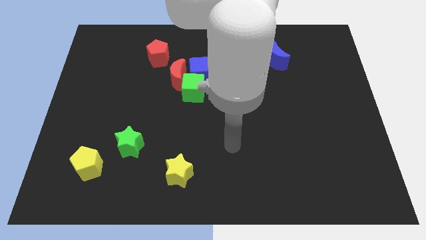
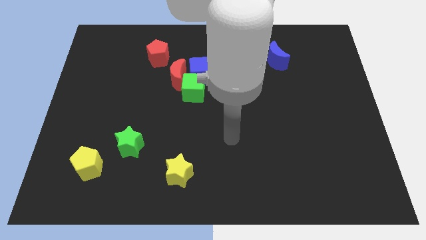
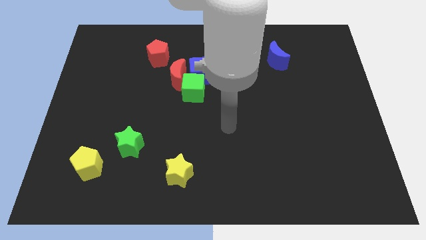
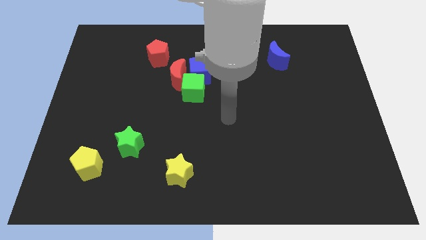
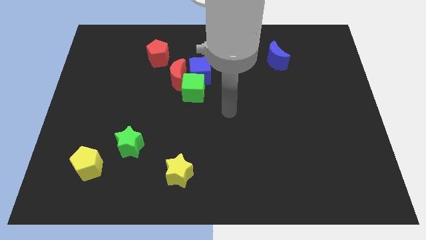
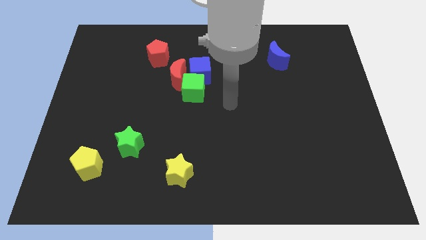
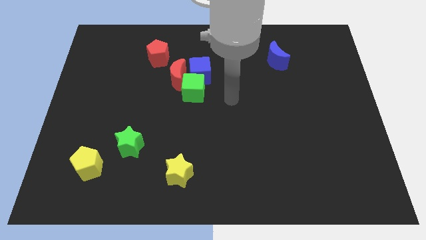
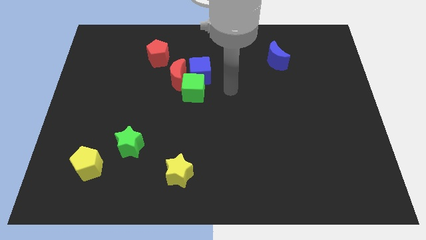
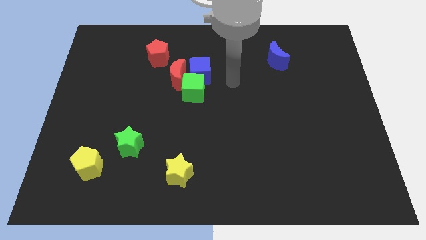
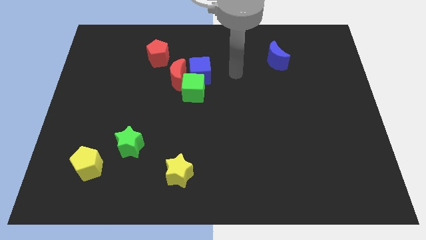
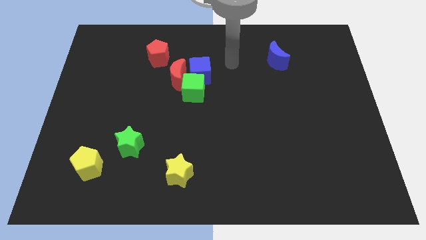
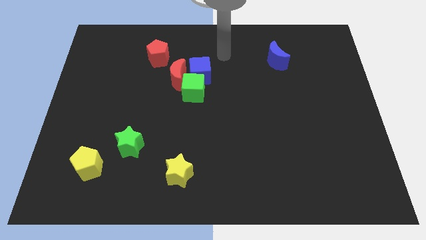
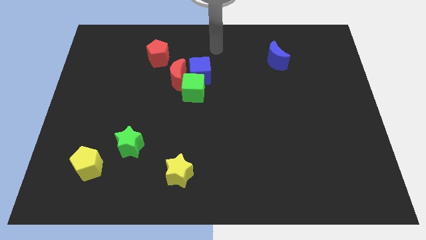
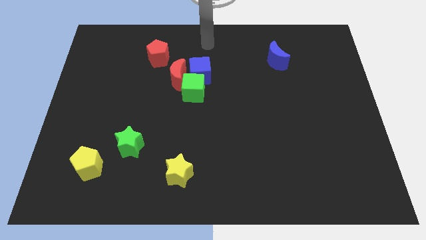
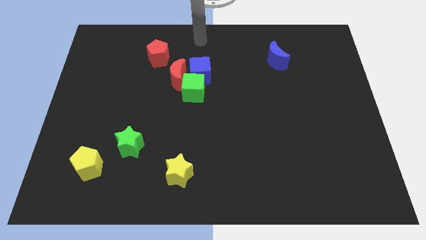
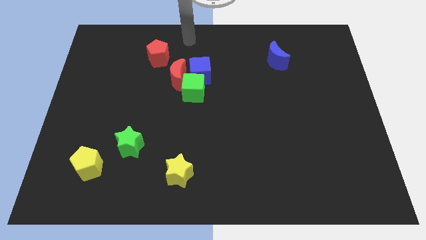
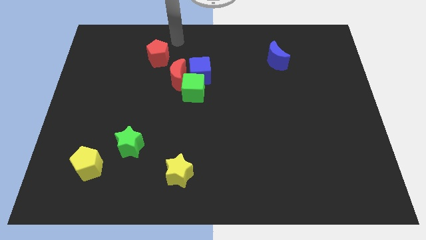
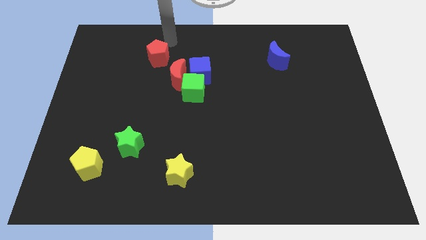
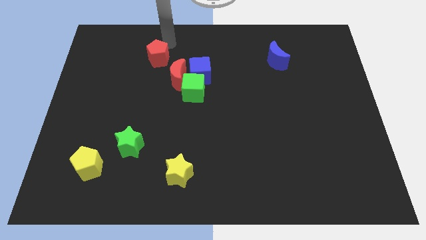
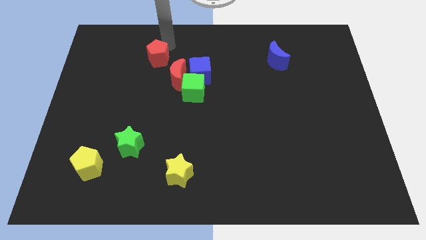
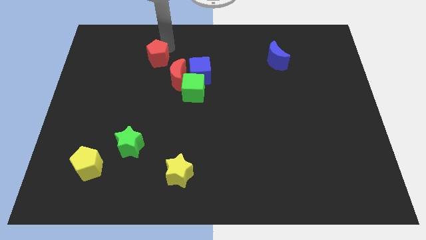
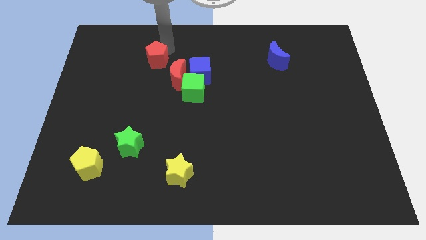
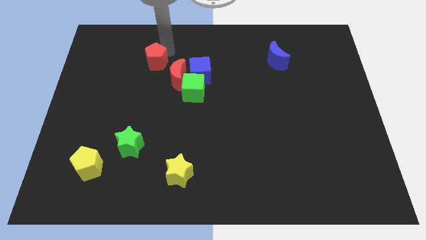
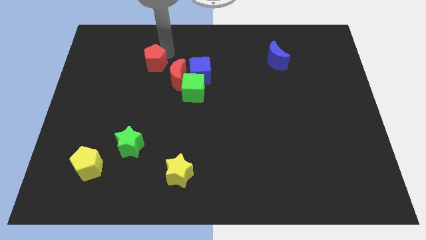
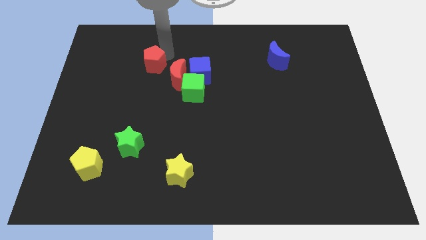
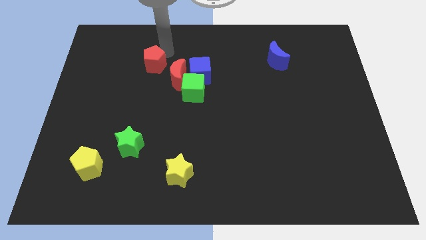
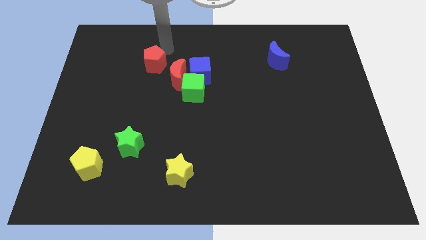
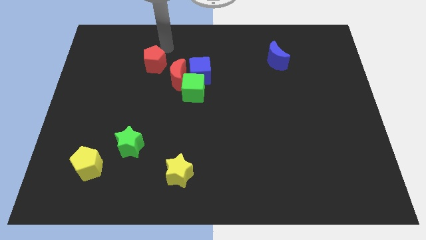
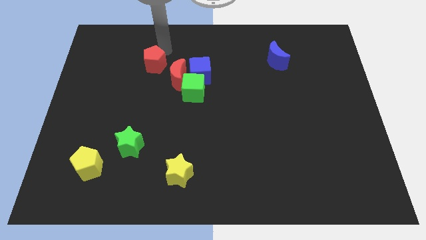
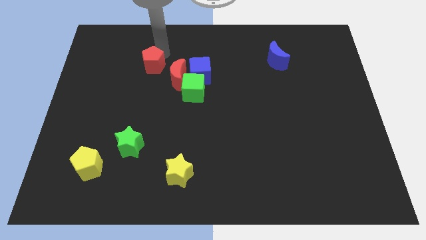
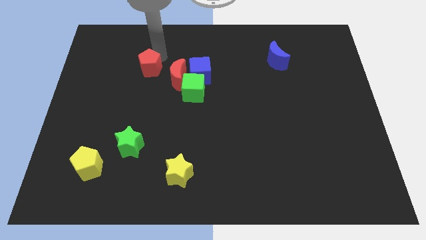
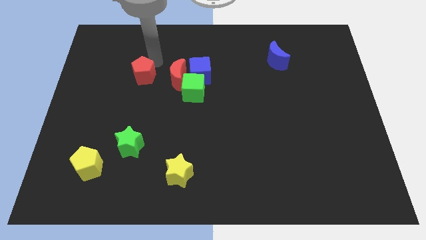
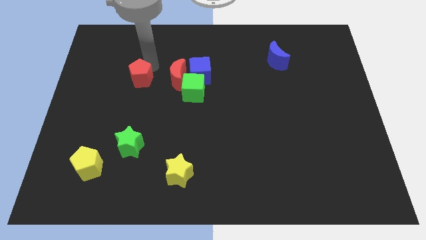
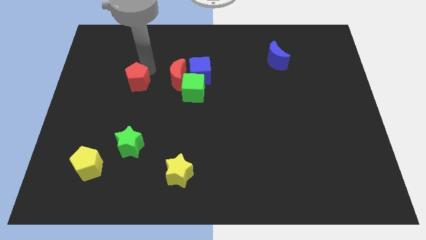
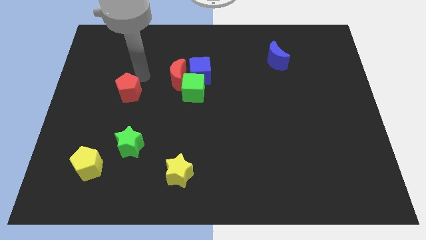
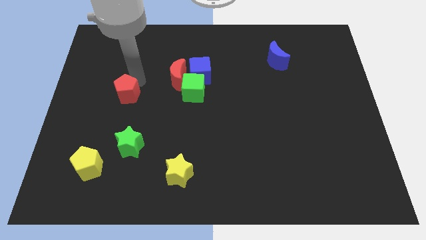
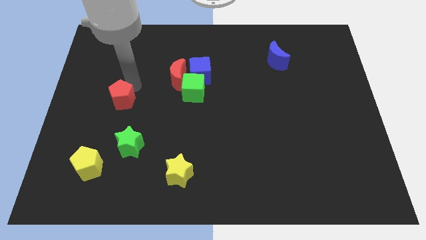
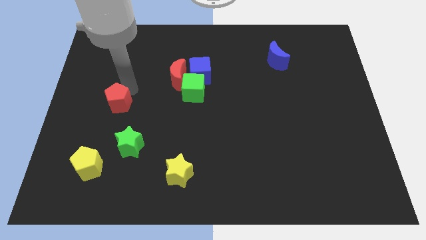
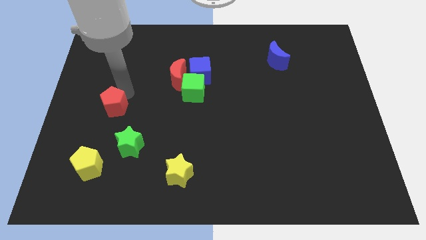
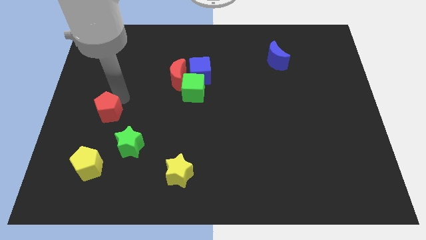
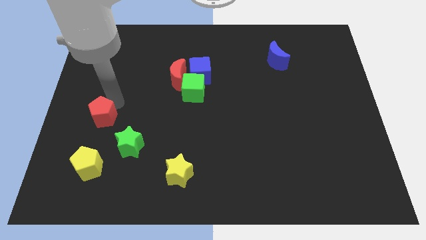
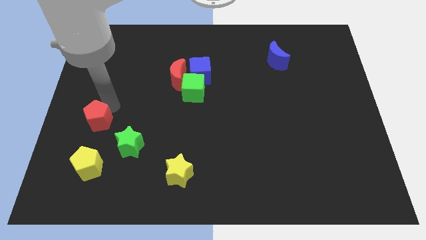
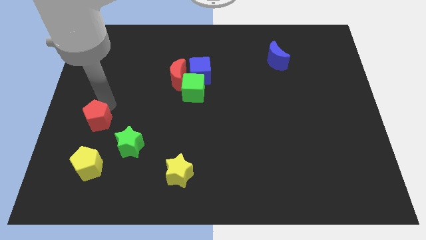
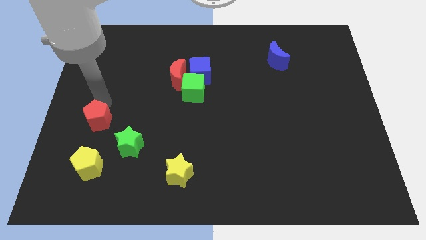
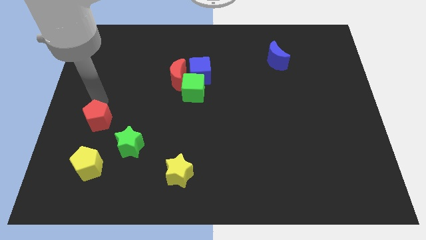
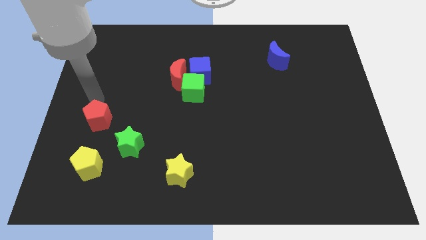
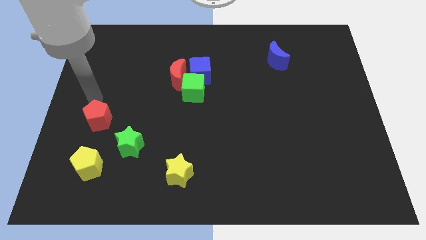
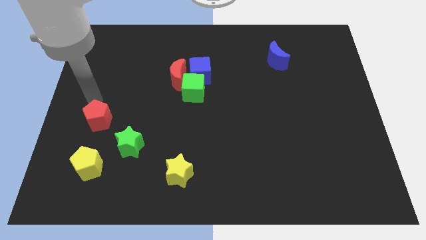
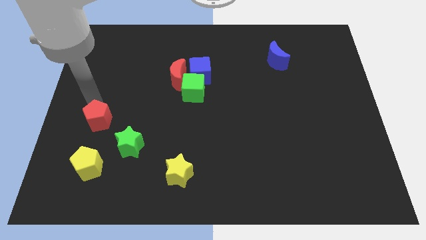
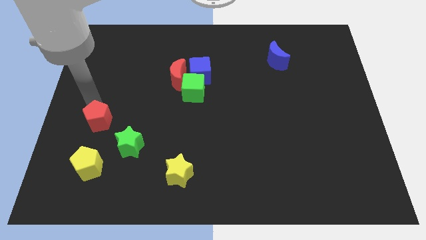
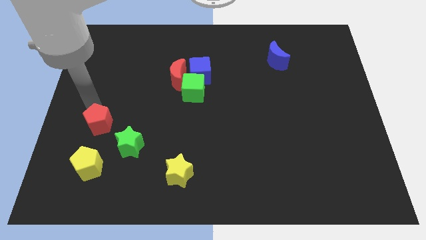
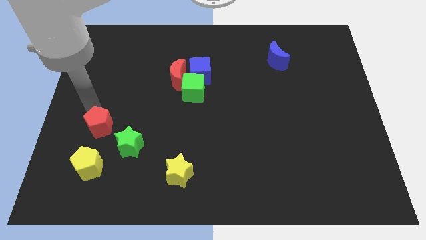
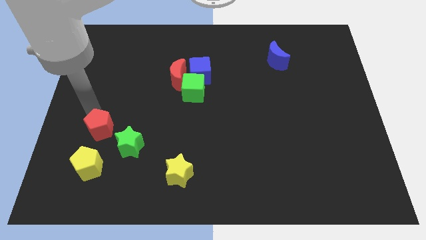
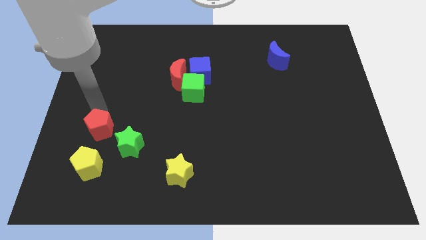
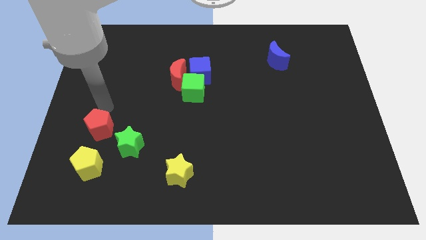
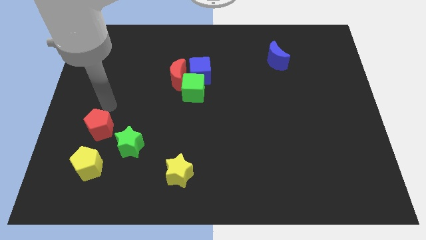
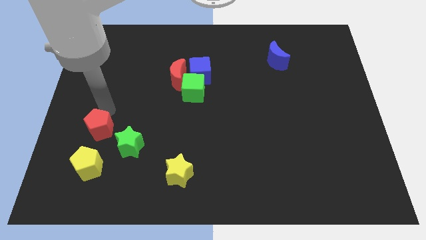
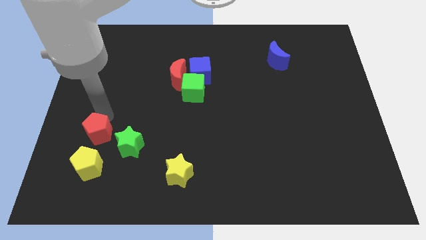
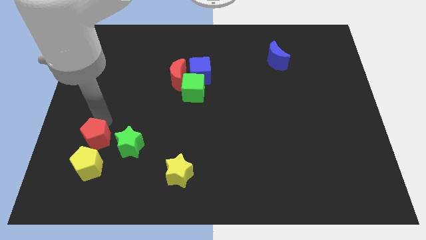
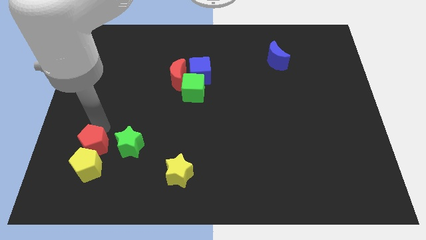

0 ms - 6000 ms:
put the red pentagon towards the yellow pentagon

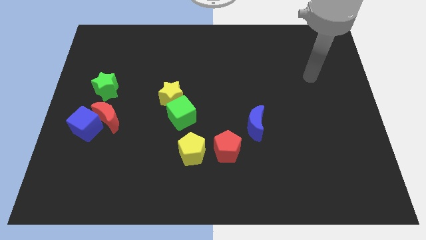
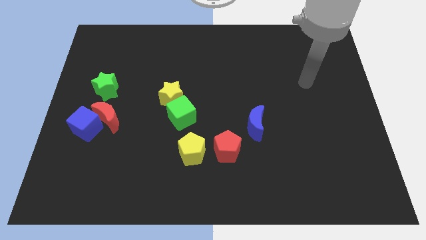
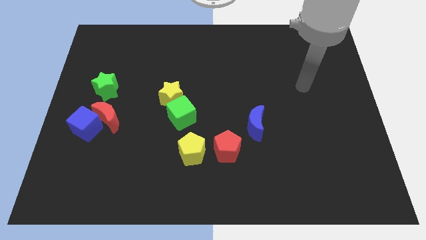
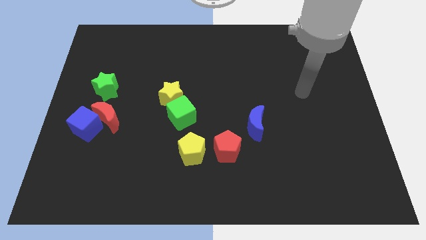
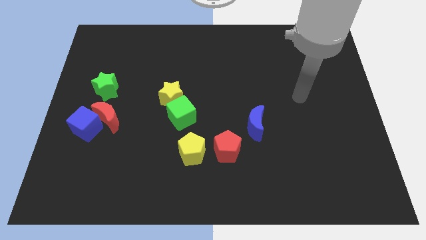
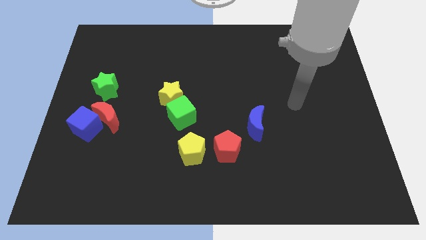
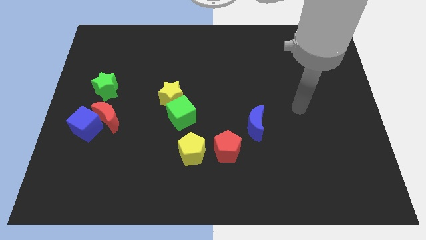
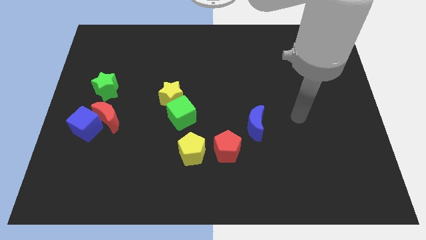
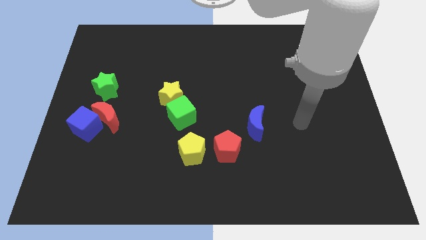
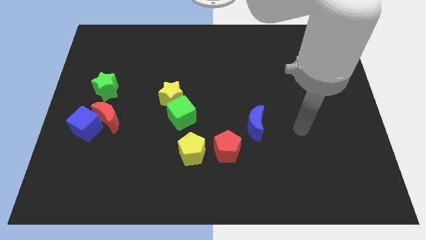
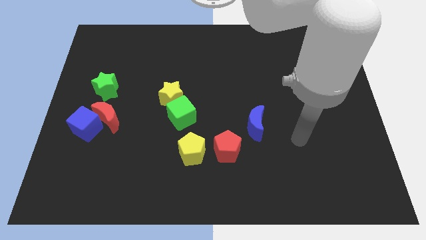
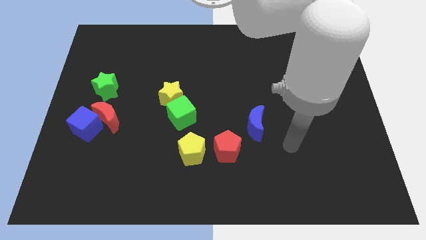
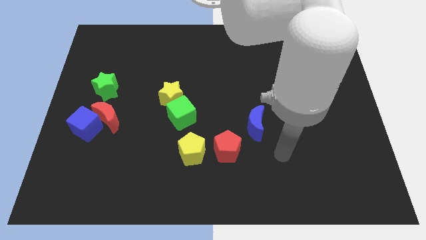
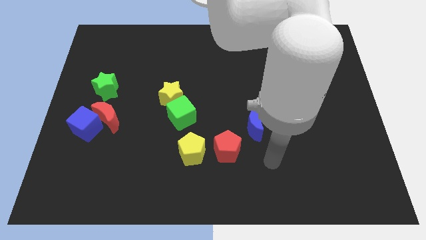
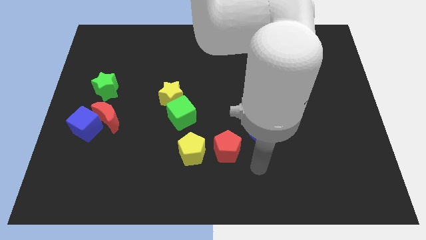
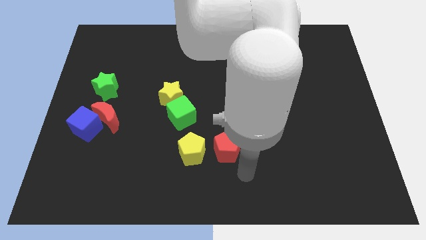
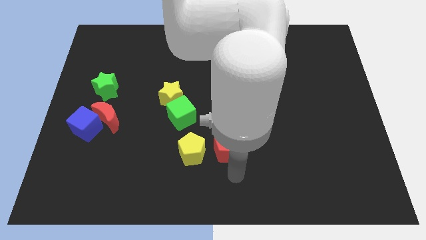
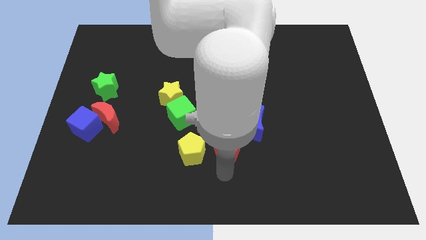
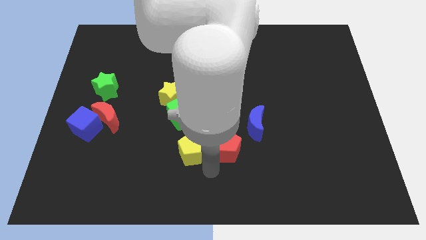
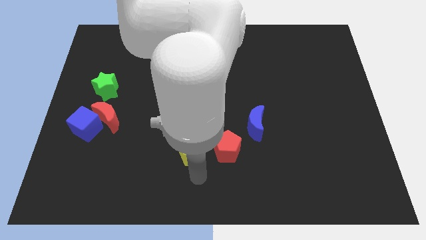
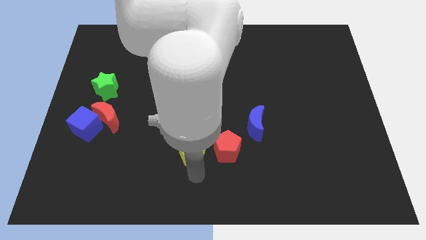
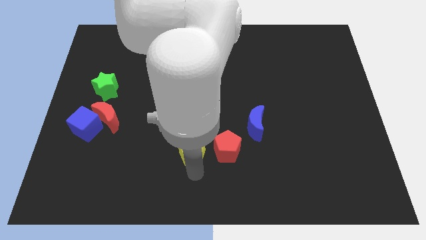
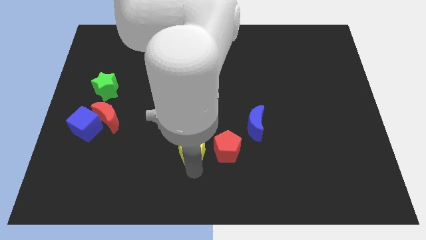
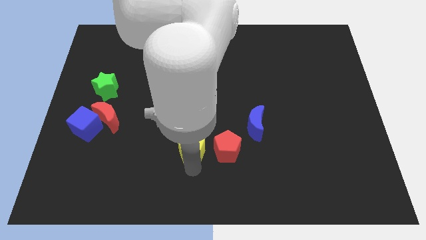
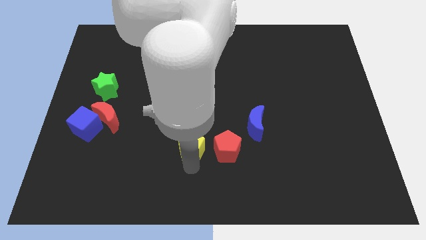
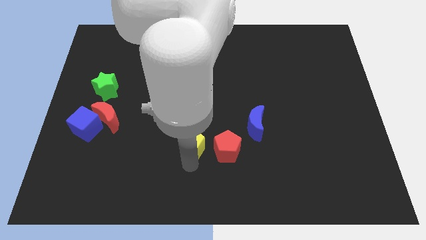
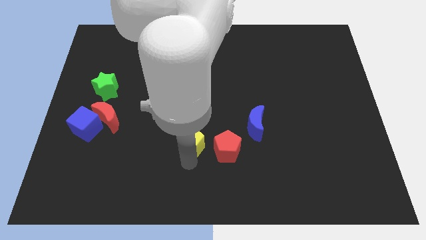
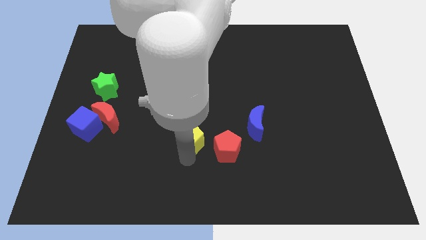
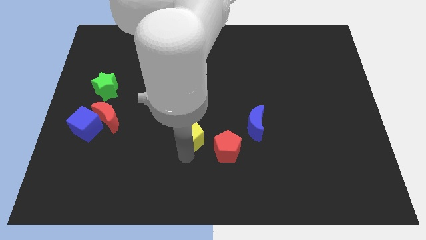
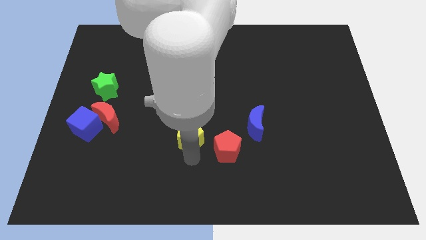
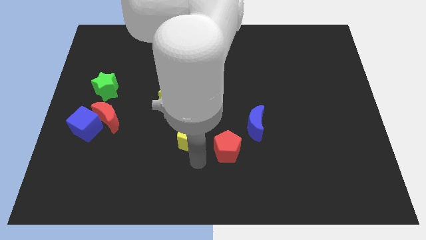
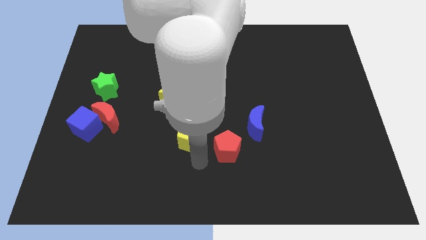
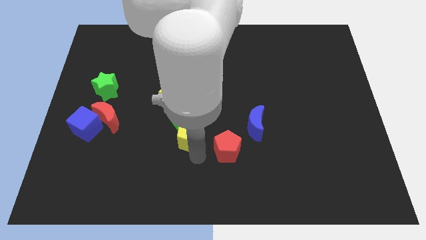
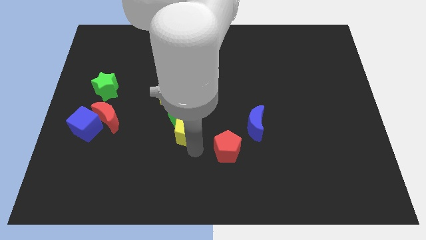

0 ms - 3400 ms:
slide the yellow pentagon towards the green cube
